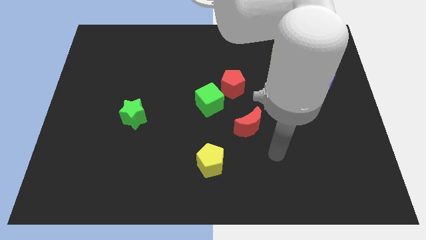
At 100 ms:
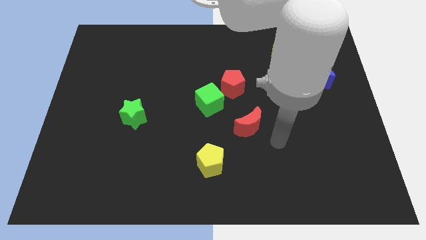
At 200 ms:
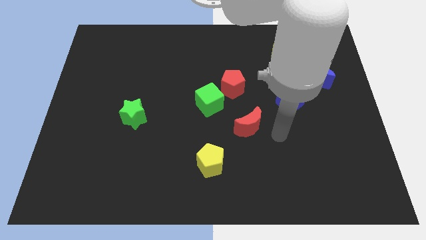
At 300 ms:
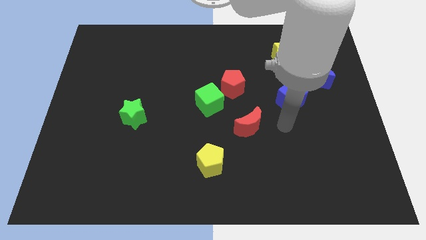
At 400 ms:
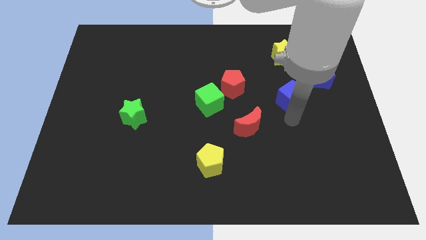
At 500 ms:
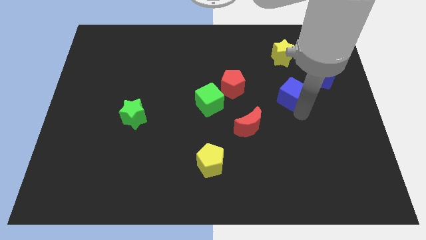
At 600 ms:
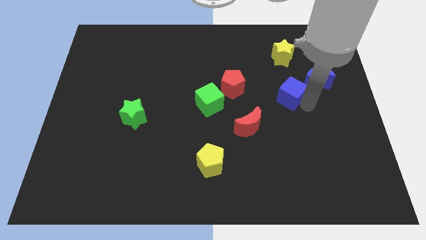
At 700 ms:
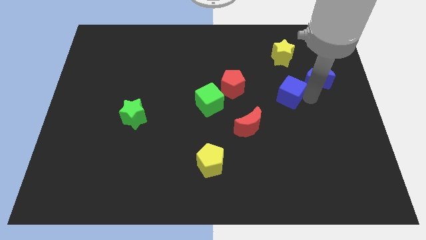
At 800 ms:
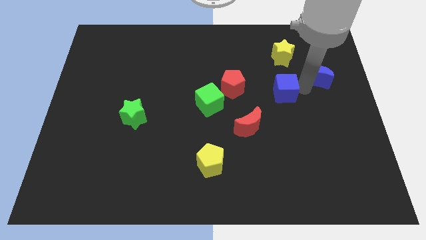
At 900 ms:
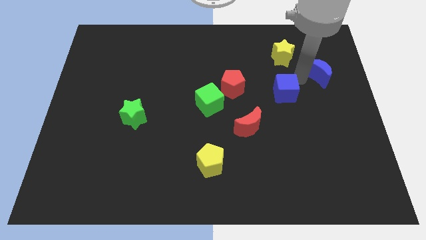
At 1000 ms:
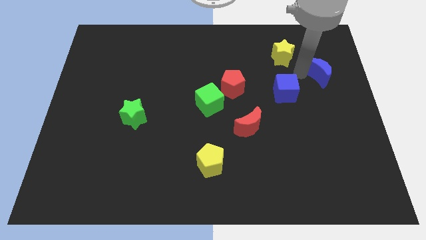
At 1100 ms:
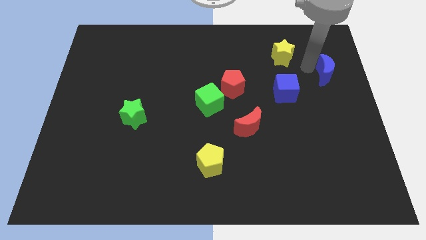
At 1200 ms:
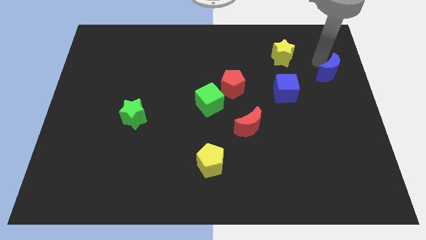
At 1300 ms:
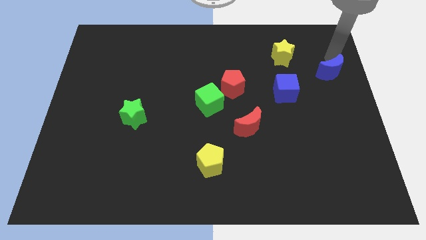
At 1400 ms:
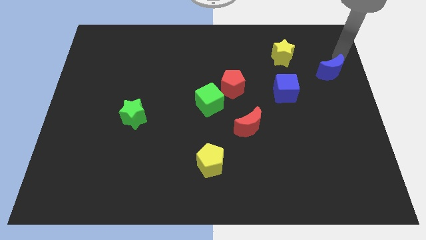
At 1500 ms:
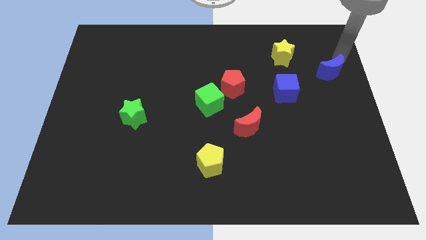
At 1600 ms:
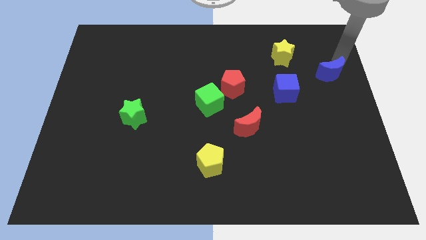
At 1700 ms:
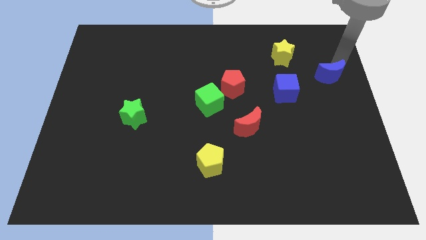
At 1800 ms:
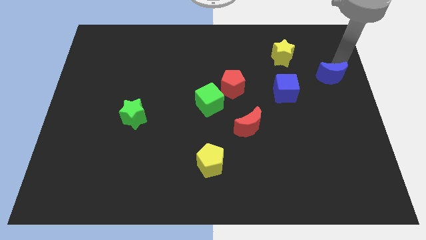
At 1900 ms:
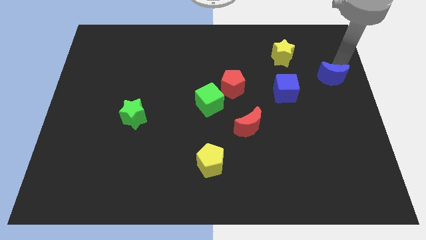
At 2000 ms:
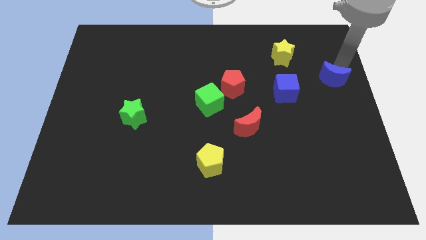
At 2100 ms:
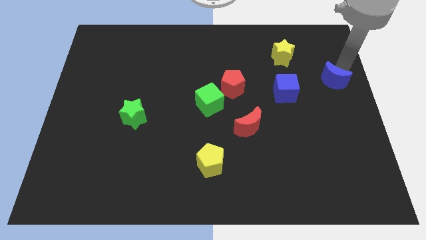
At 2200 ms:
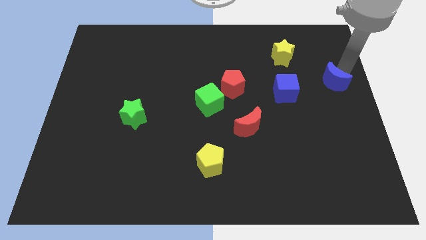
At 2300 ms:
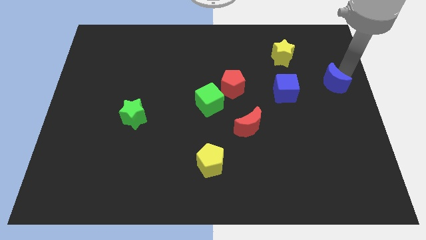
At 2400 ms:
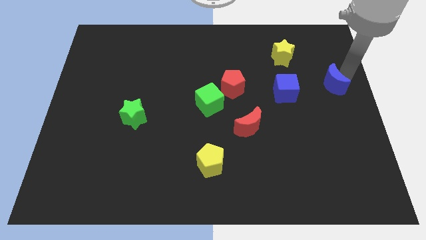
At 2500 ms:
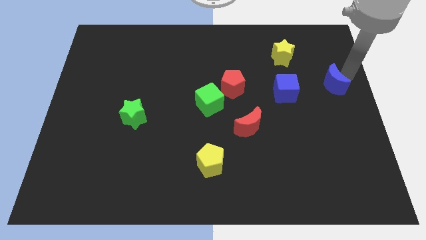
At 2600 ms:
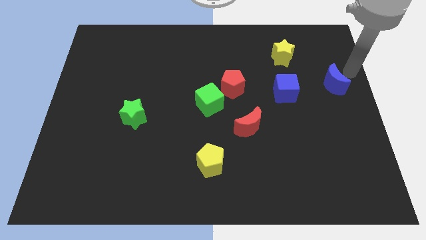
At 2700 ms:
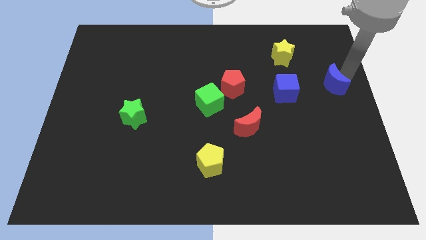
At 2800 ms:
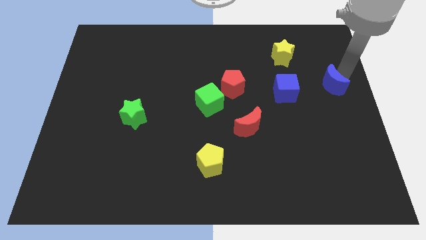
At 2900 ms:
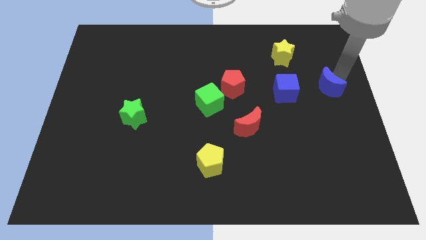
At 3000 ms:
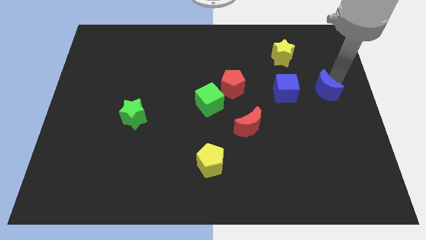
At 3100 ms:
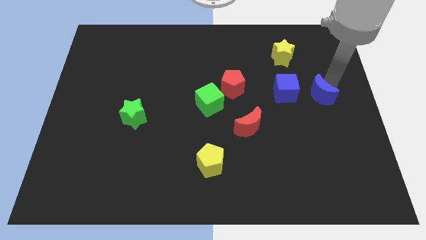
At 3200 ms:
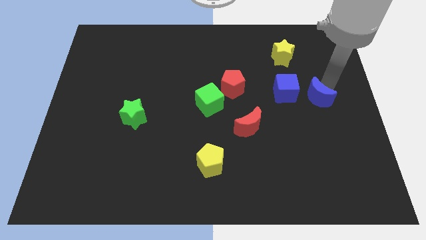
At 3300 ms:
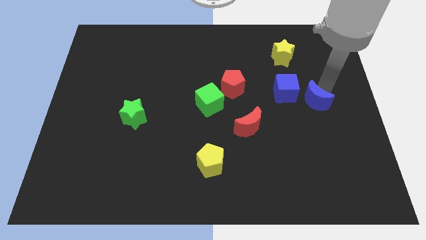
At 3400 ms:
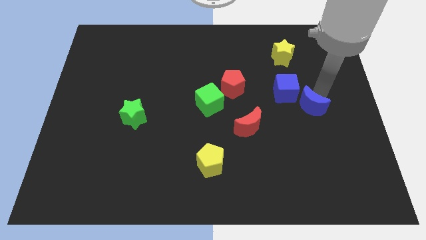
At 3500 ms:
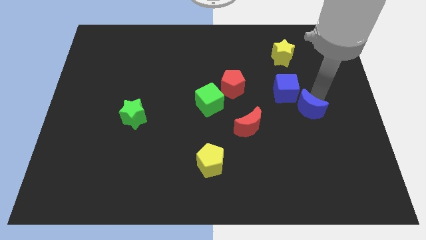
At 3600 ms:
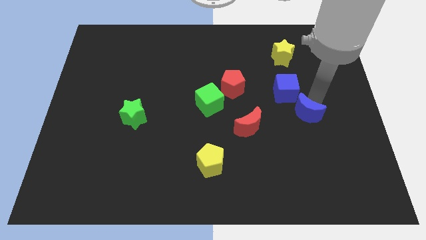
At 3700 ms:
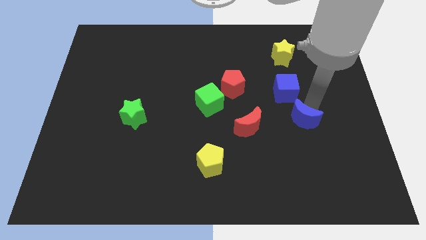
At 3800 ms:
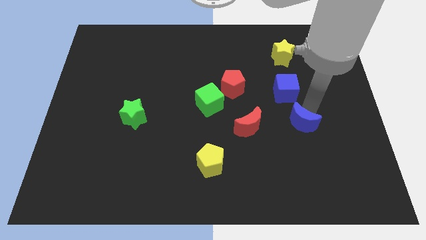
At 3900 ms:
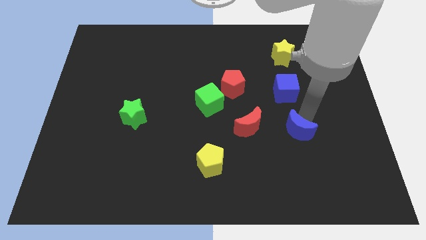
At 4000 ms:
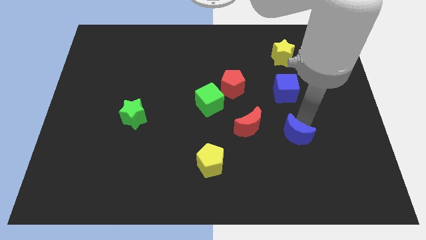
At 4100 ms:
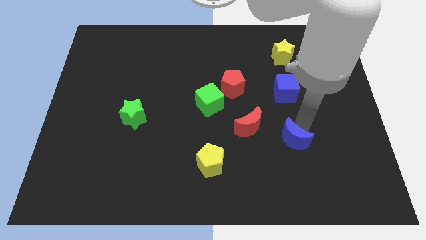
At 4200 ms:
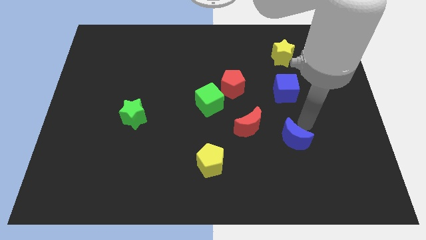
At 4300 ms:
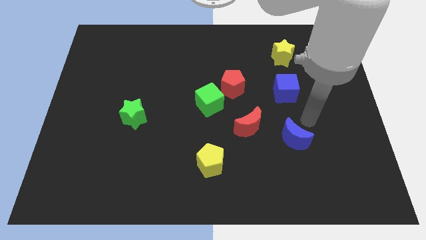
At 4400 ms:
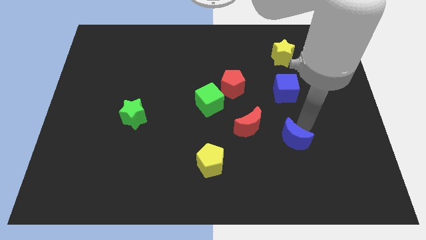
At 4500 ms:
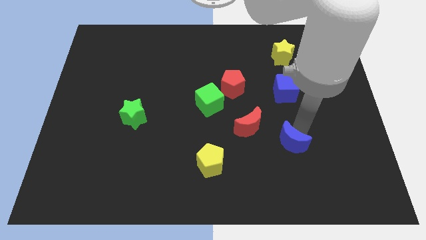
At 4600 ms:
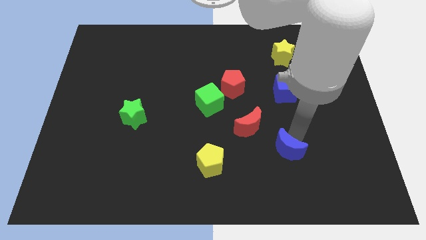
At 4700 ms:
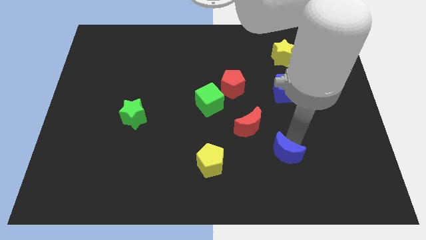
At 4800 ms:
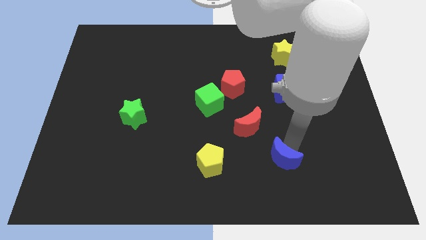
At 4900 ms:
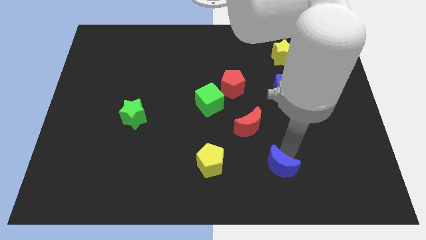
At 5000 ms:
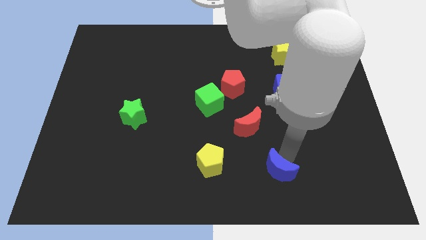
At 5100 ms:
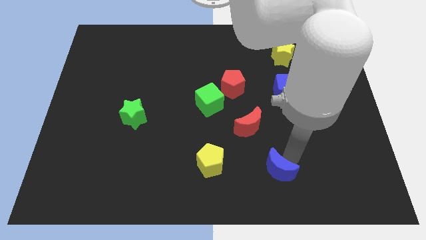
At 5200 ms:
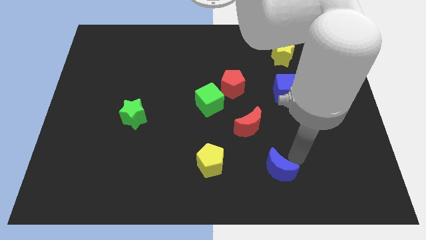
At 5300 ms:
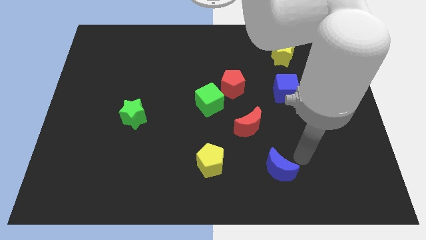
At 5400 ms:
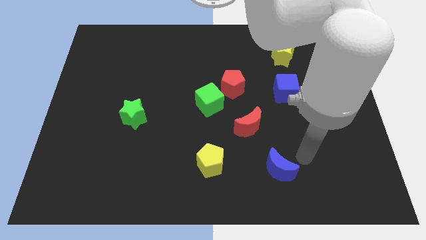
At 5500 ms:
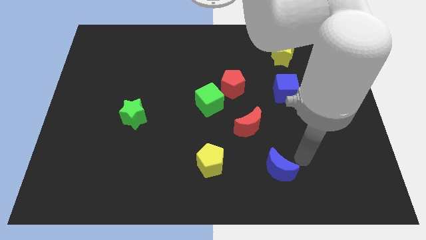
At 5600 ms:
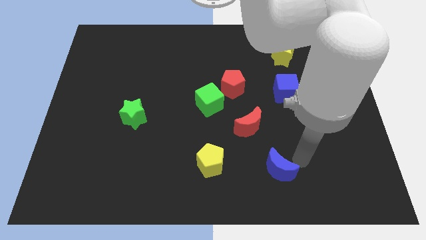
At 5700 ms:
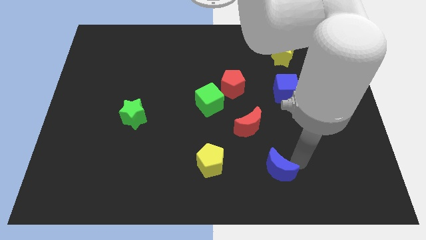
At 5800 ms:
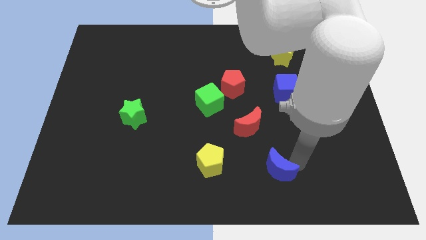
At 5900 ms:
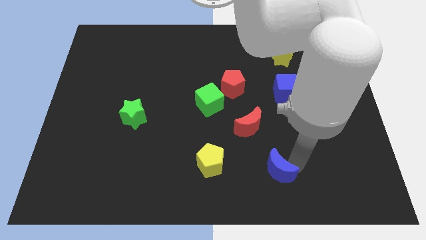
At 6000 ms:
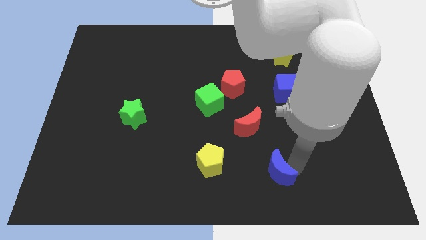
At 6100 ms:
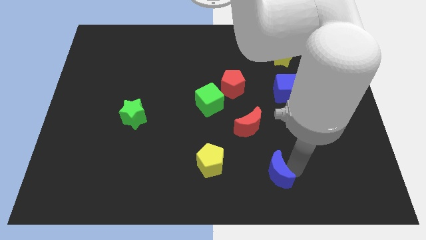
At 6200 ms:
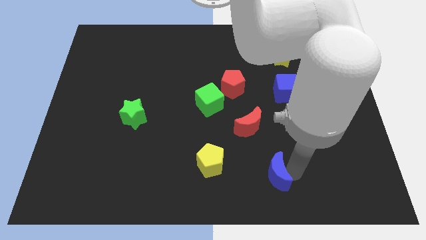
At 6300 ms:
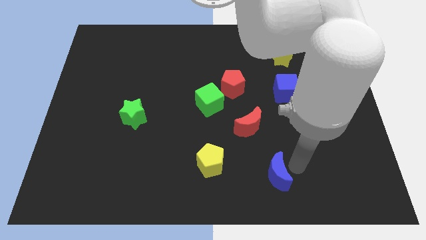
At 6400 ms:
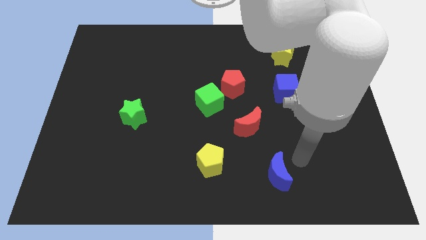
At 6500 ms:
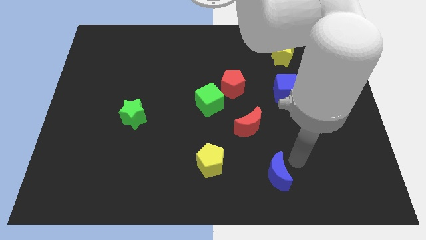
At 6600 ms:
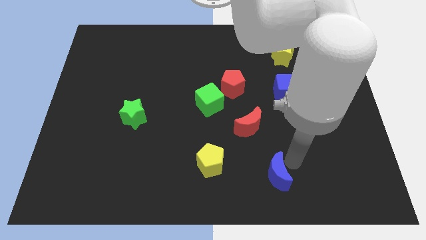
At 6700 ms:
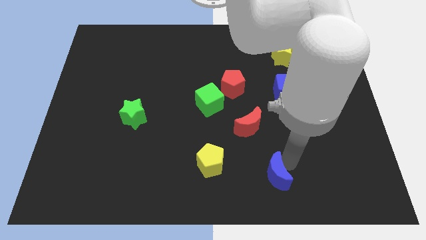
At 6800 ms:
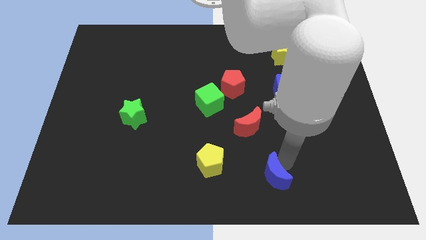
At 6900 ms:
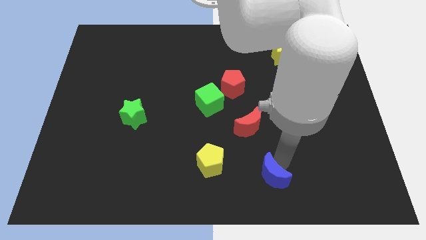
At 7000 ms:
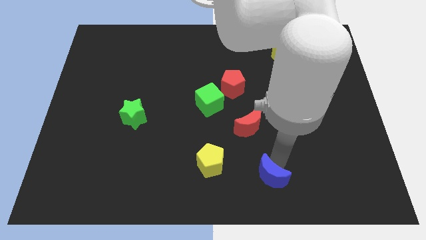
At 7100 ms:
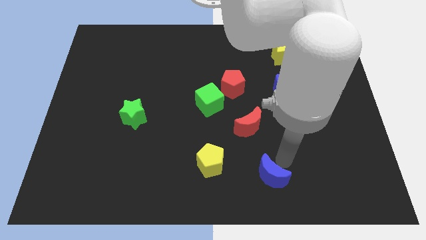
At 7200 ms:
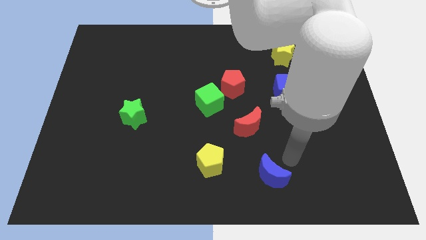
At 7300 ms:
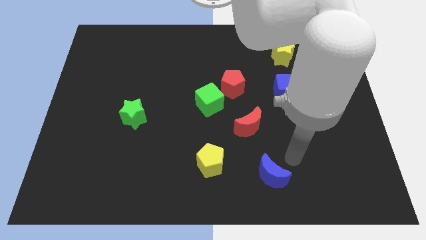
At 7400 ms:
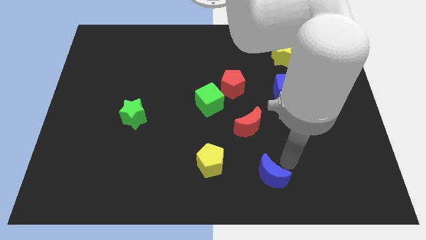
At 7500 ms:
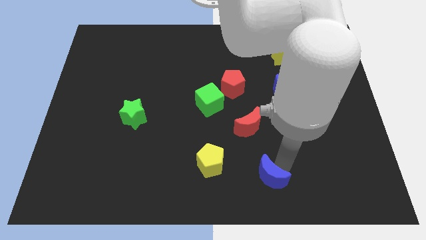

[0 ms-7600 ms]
push the blue moon to the bottom
